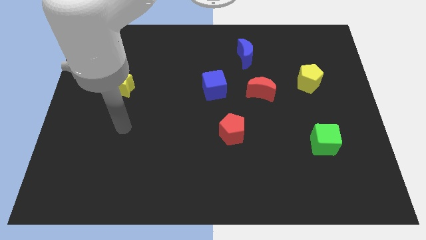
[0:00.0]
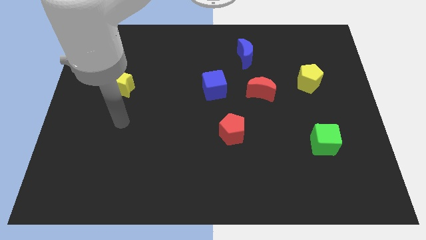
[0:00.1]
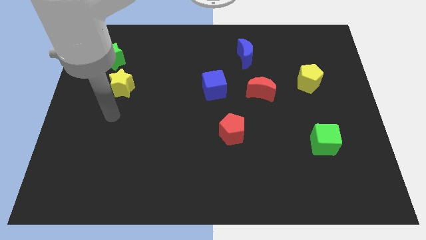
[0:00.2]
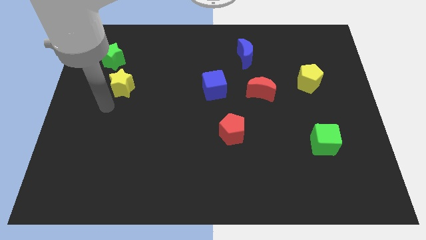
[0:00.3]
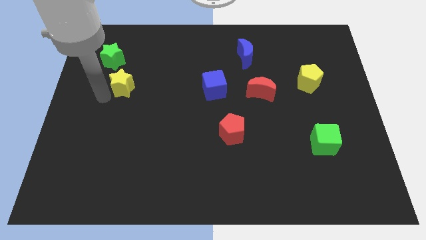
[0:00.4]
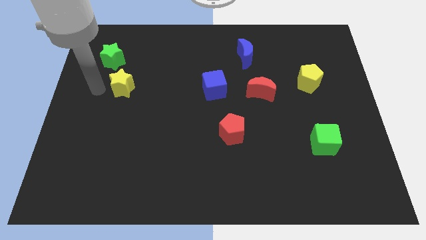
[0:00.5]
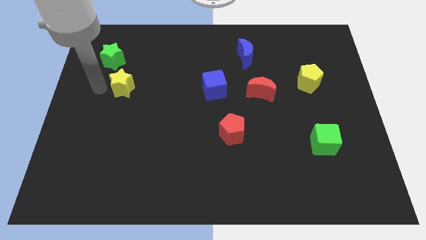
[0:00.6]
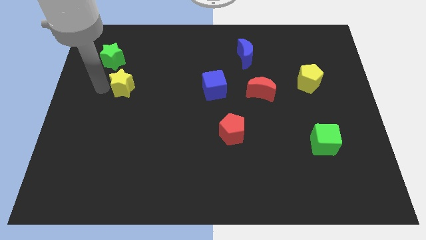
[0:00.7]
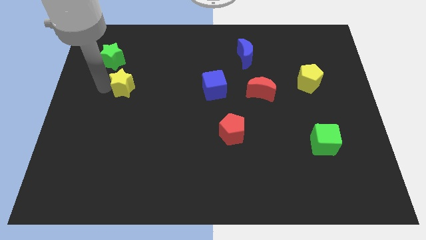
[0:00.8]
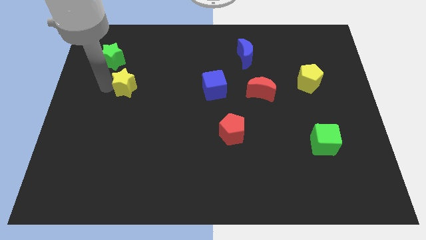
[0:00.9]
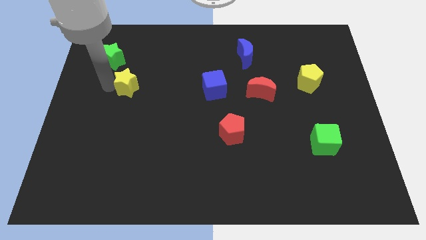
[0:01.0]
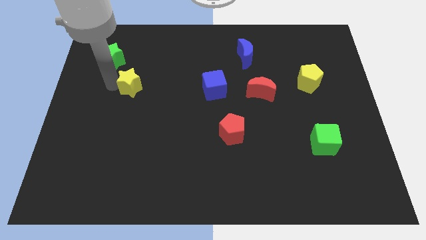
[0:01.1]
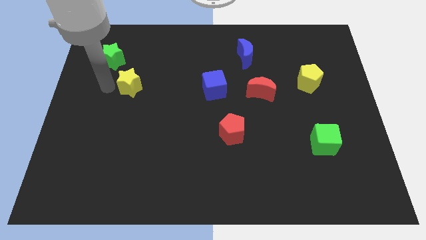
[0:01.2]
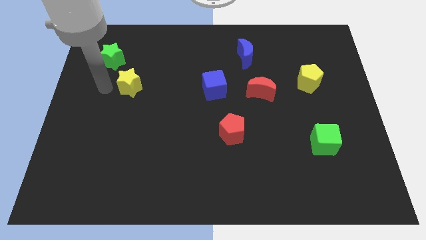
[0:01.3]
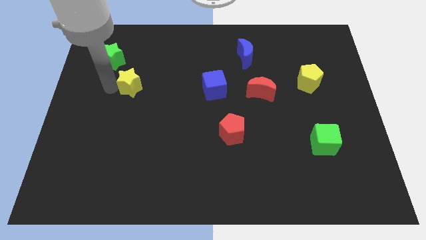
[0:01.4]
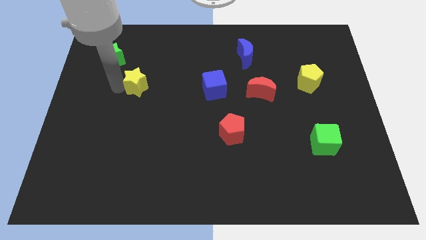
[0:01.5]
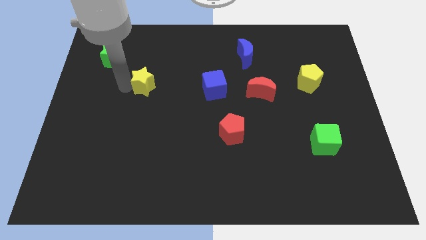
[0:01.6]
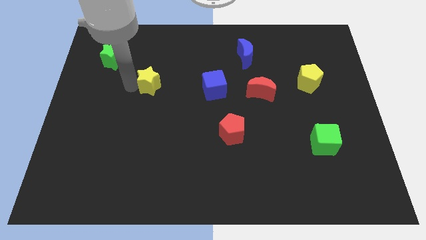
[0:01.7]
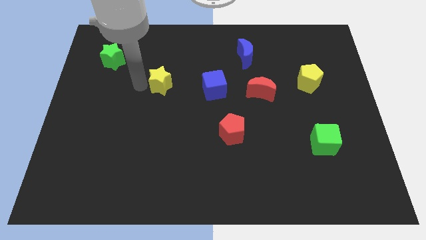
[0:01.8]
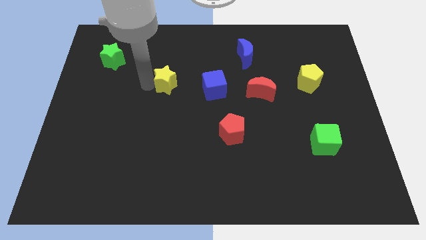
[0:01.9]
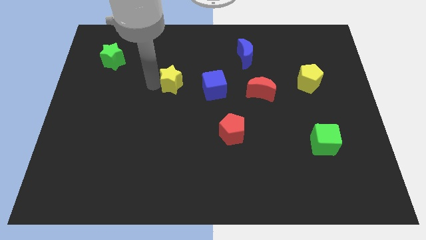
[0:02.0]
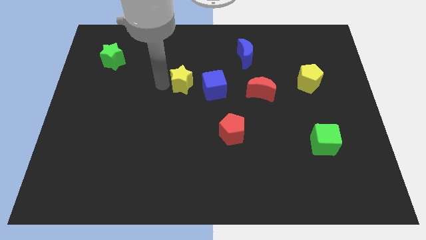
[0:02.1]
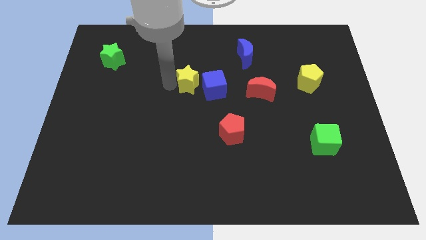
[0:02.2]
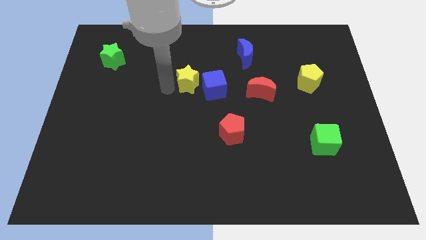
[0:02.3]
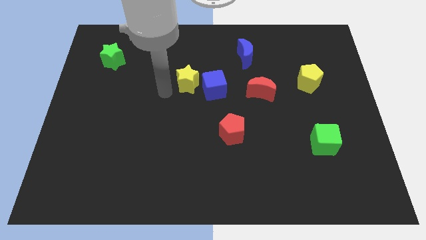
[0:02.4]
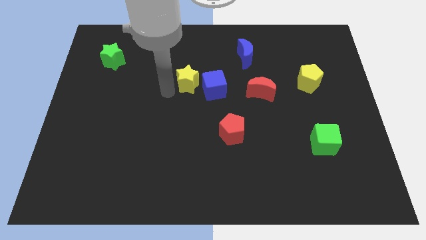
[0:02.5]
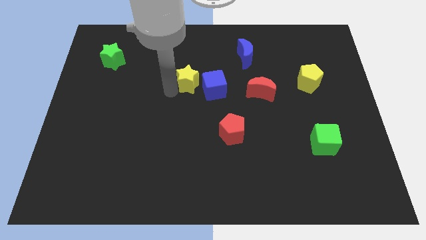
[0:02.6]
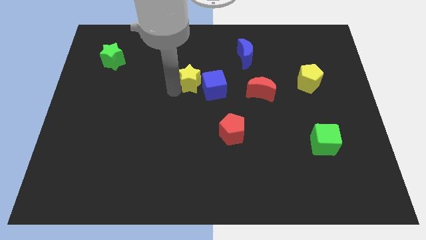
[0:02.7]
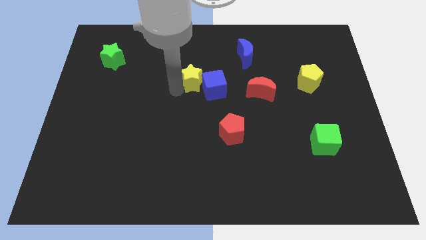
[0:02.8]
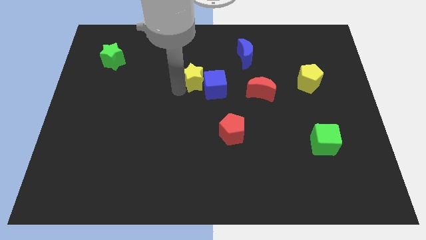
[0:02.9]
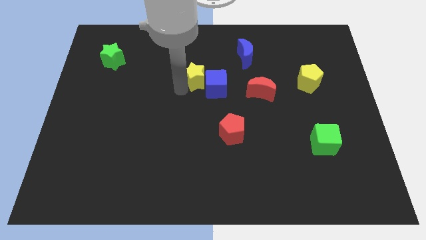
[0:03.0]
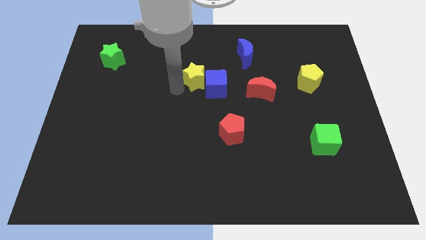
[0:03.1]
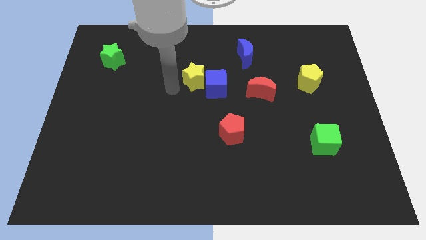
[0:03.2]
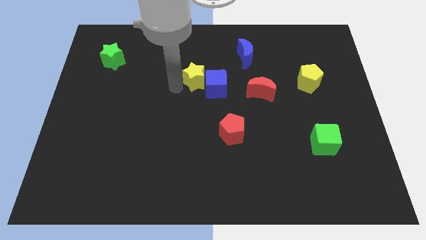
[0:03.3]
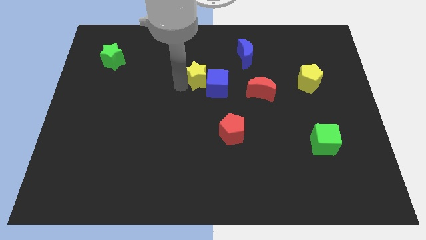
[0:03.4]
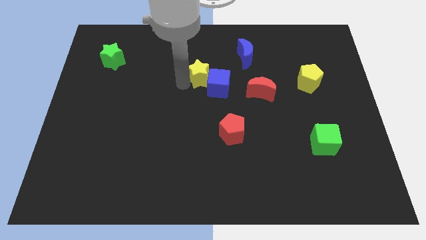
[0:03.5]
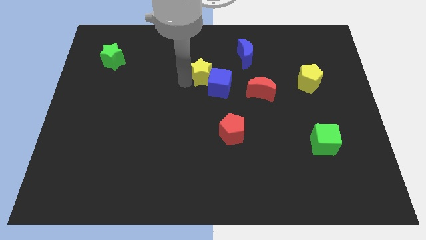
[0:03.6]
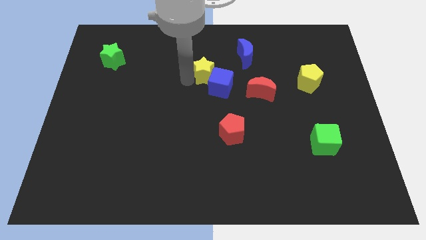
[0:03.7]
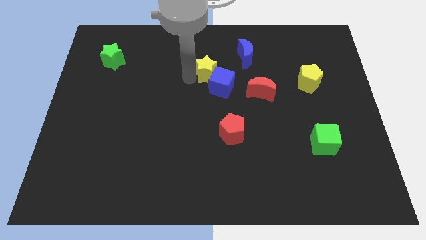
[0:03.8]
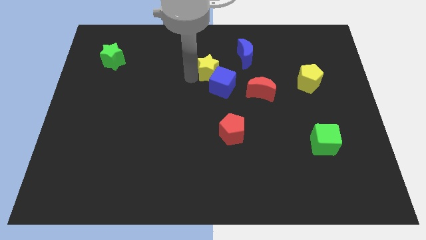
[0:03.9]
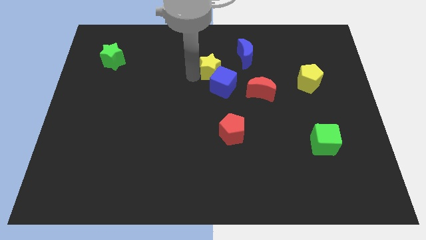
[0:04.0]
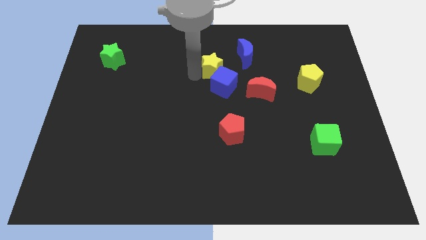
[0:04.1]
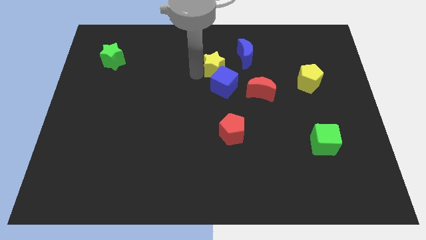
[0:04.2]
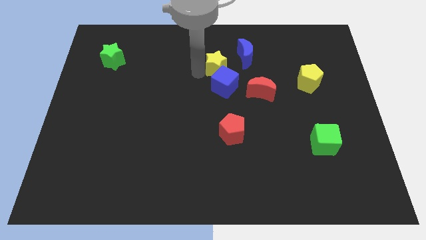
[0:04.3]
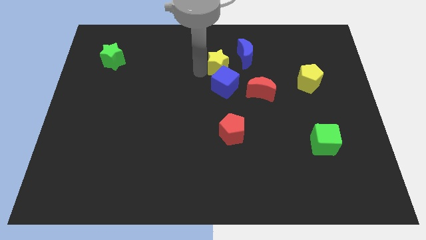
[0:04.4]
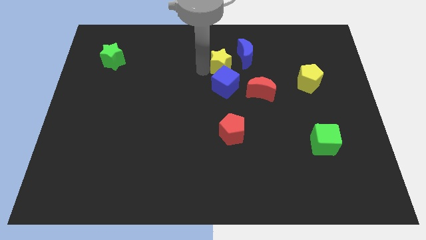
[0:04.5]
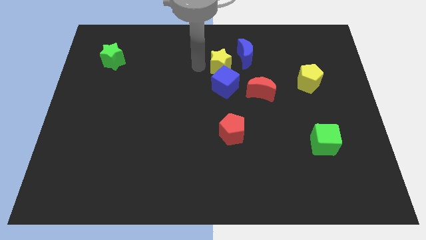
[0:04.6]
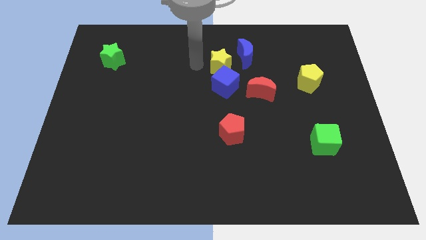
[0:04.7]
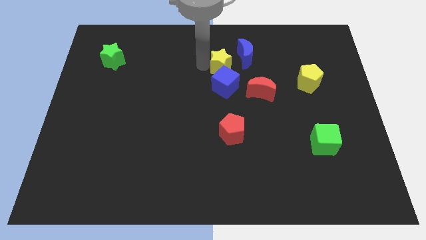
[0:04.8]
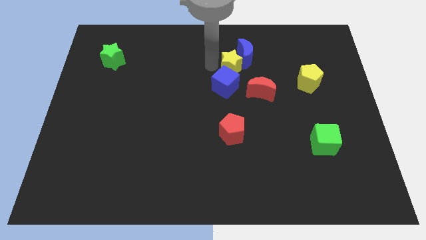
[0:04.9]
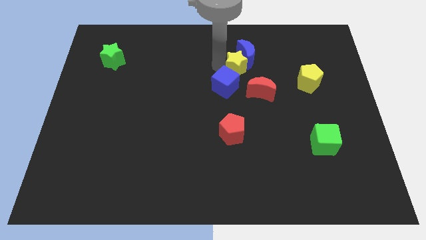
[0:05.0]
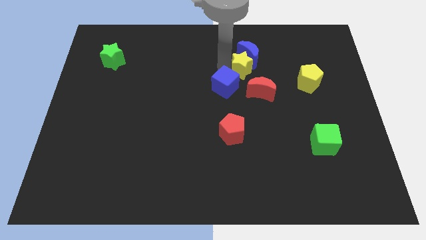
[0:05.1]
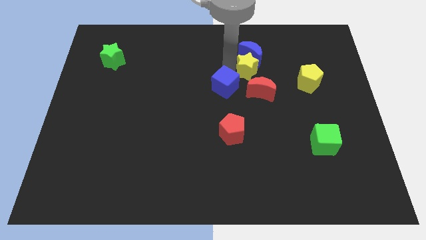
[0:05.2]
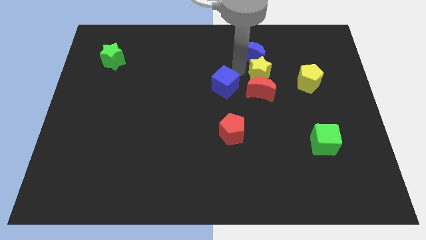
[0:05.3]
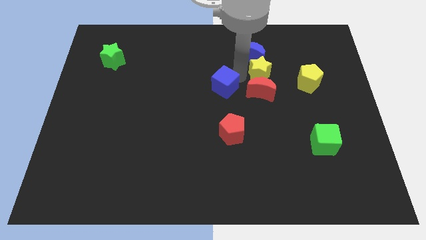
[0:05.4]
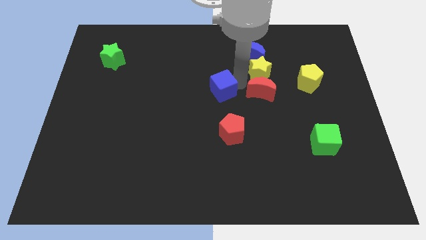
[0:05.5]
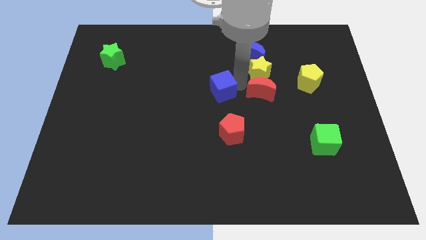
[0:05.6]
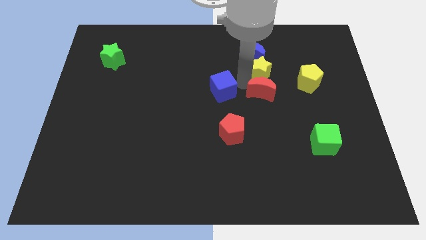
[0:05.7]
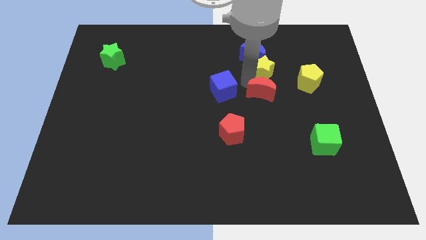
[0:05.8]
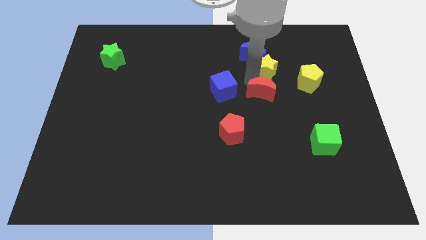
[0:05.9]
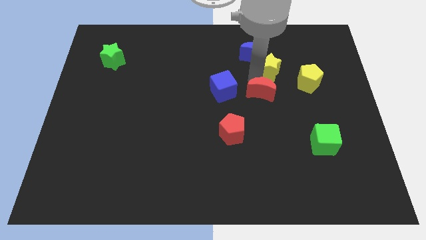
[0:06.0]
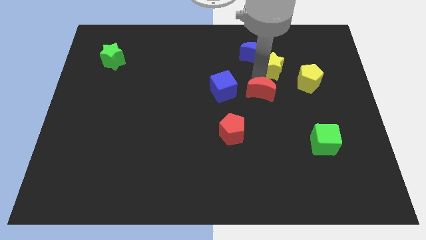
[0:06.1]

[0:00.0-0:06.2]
slide the yellow star to the right of the blue moon
